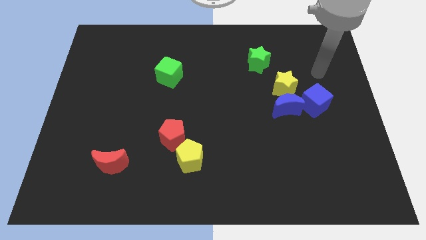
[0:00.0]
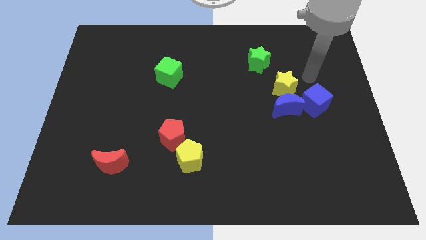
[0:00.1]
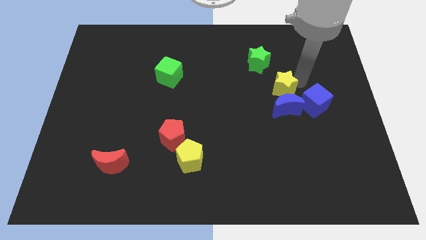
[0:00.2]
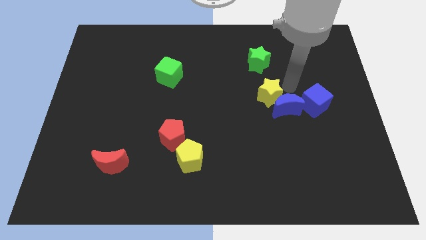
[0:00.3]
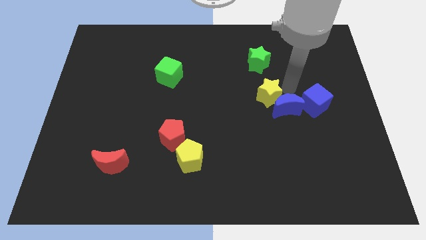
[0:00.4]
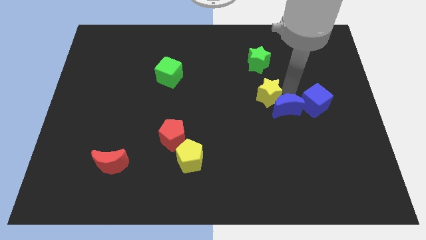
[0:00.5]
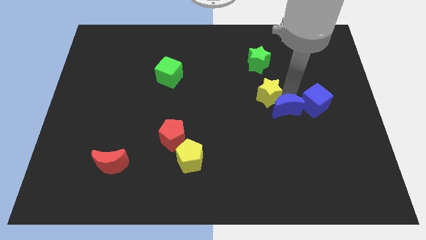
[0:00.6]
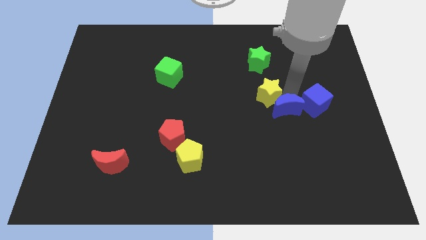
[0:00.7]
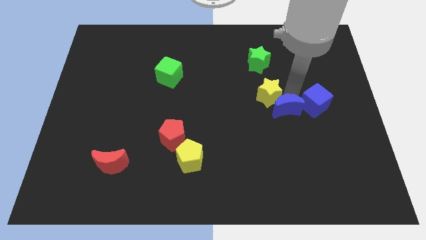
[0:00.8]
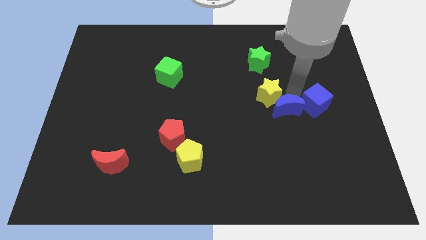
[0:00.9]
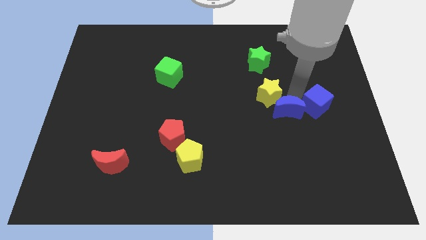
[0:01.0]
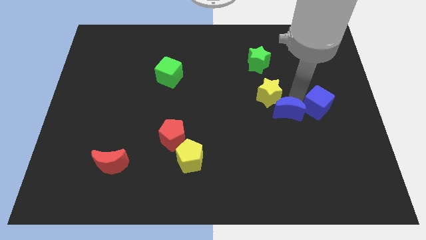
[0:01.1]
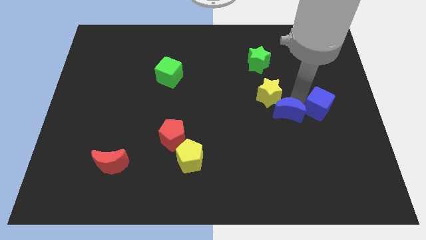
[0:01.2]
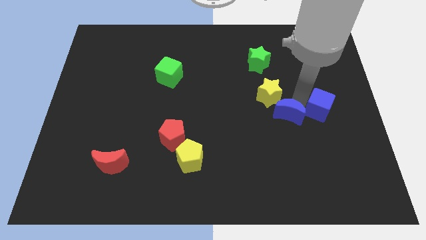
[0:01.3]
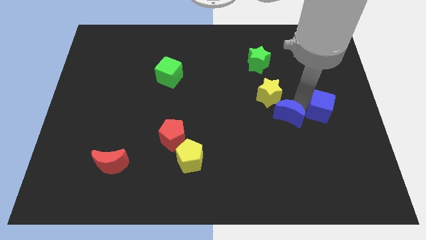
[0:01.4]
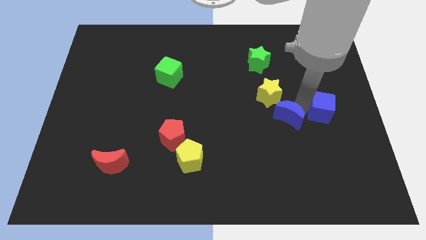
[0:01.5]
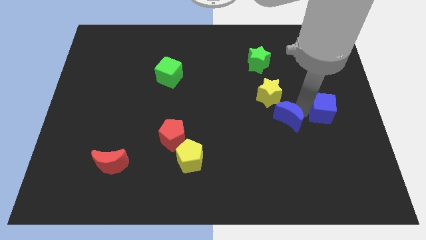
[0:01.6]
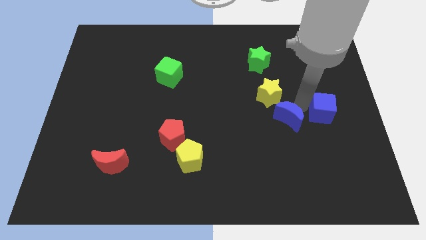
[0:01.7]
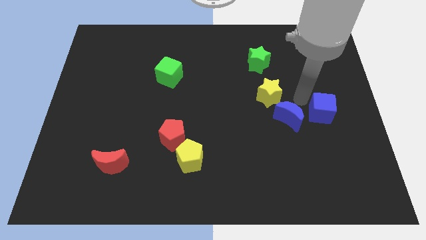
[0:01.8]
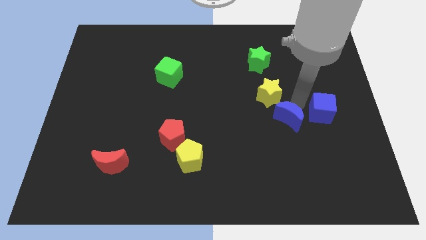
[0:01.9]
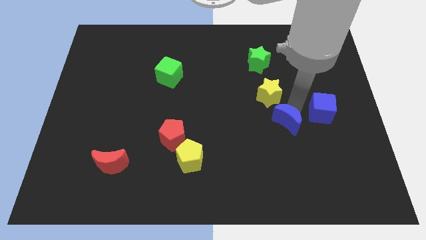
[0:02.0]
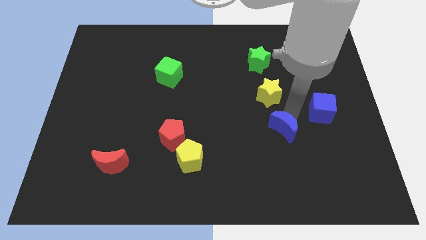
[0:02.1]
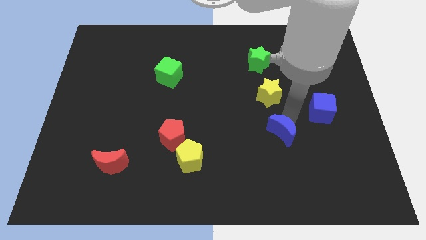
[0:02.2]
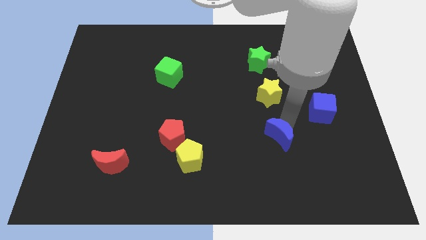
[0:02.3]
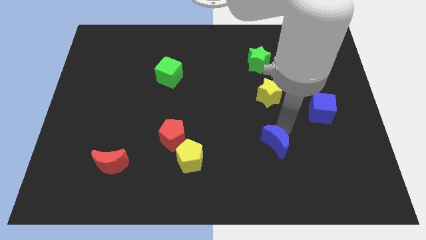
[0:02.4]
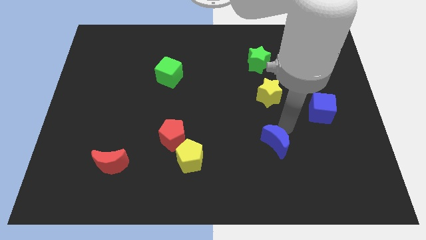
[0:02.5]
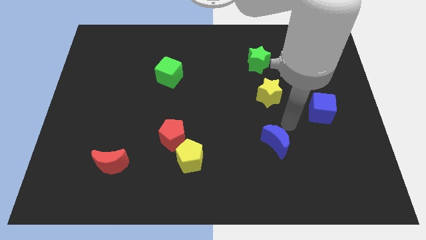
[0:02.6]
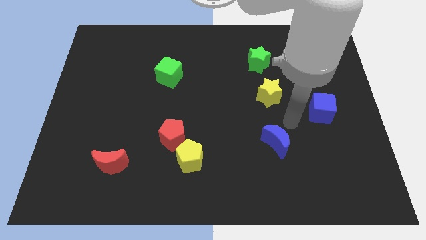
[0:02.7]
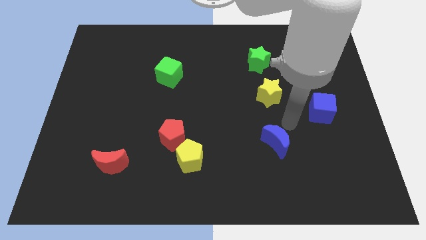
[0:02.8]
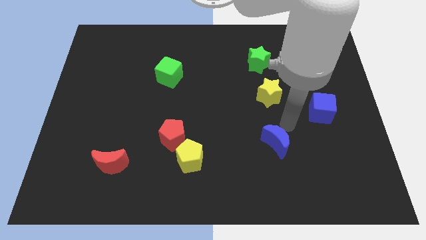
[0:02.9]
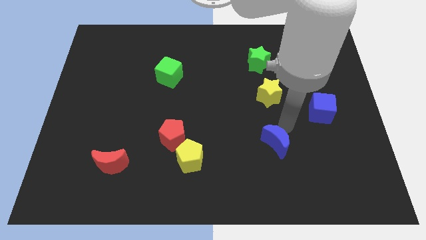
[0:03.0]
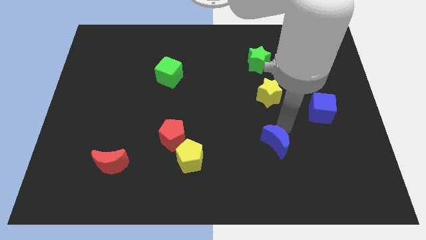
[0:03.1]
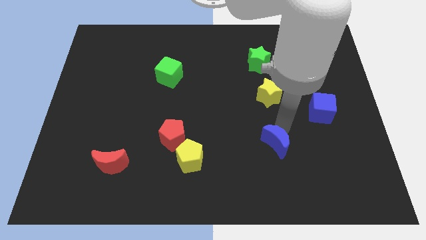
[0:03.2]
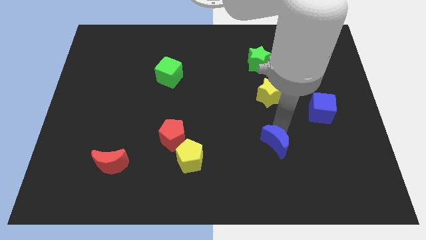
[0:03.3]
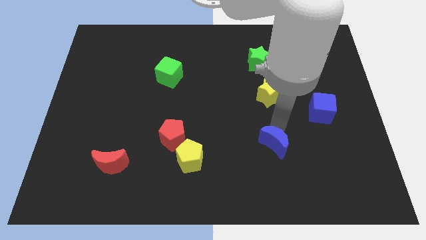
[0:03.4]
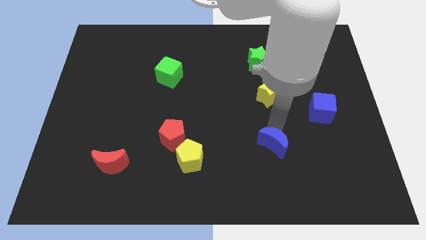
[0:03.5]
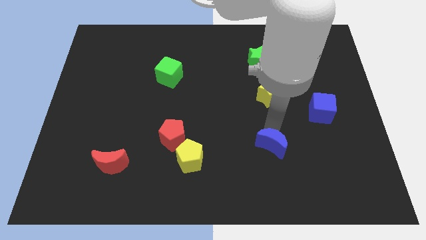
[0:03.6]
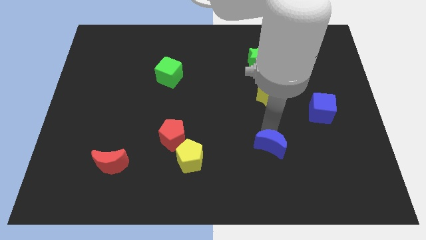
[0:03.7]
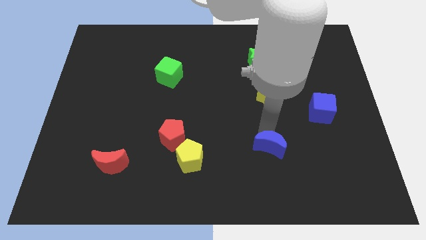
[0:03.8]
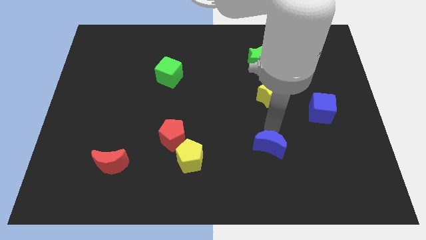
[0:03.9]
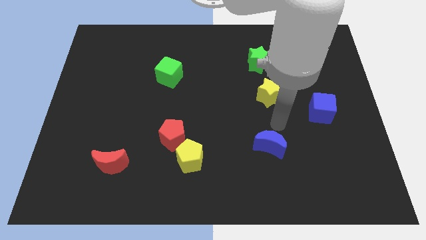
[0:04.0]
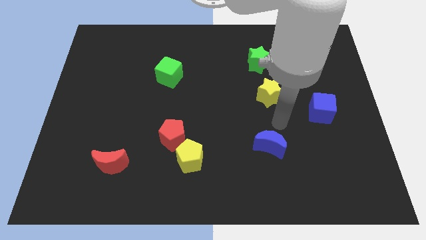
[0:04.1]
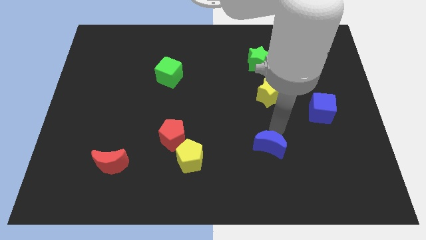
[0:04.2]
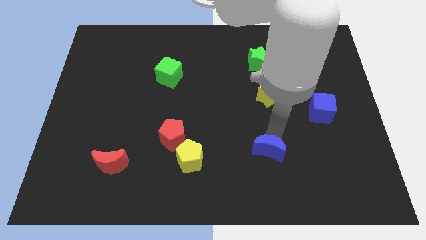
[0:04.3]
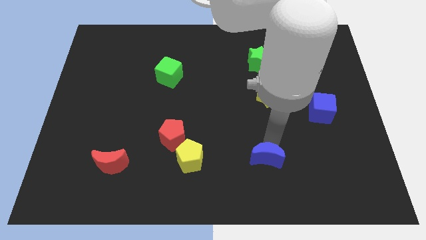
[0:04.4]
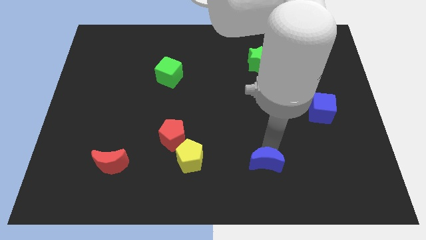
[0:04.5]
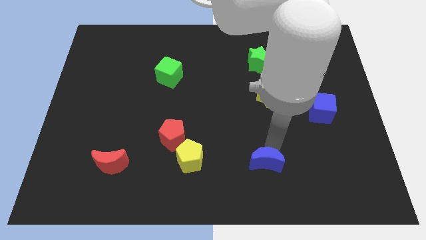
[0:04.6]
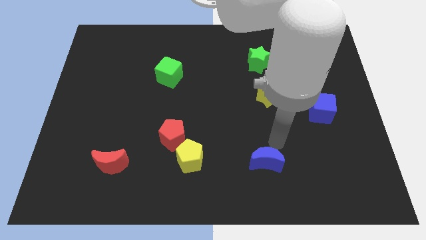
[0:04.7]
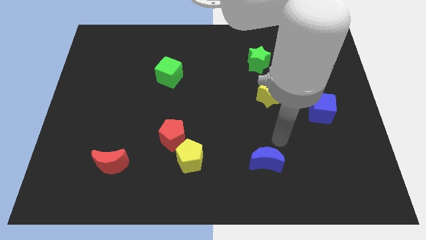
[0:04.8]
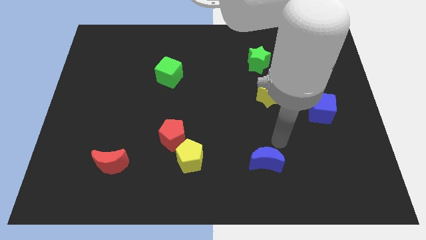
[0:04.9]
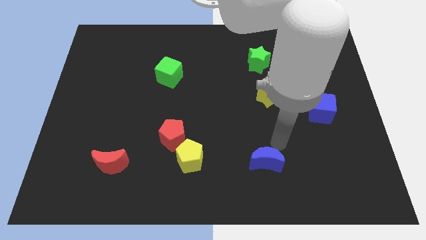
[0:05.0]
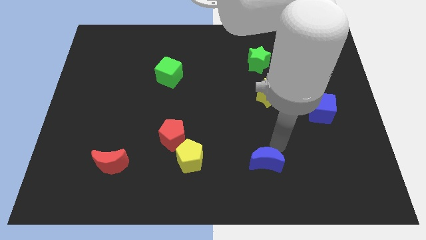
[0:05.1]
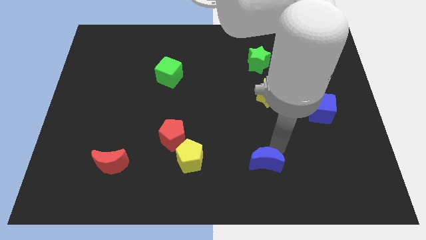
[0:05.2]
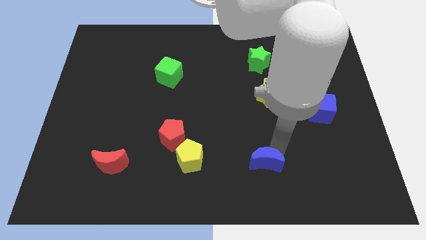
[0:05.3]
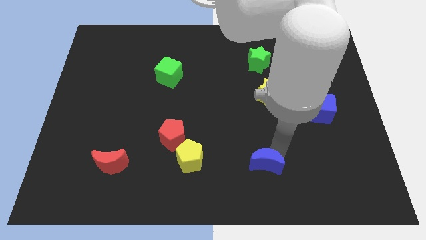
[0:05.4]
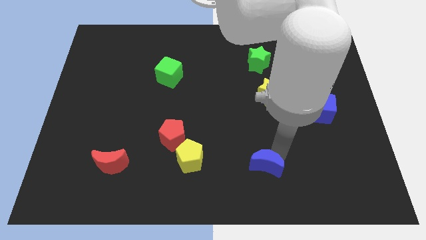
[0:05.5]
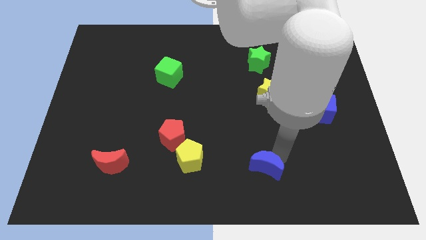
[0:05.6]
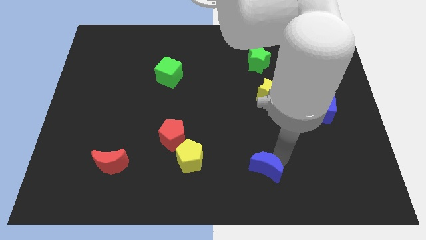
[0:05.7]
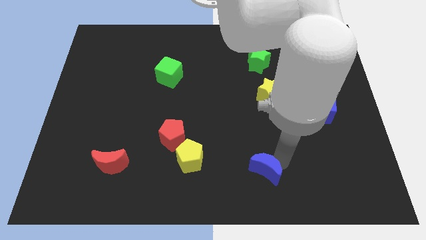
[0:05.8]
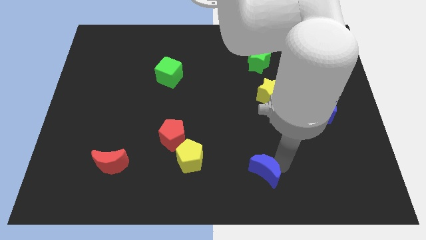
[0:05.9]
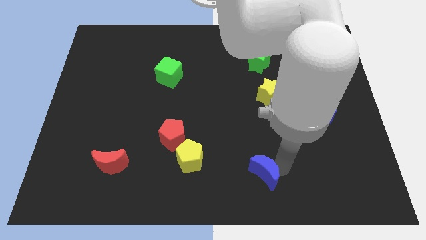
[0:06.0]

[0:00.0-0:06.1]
slide the blue moon to the bottom

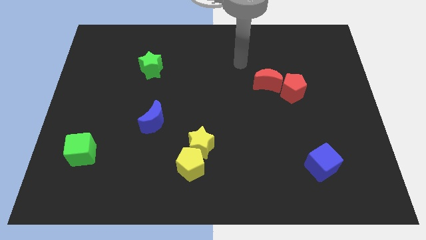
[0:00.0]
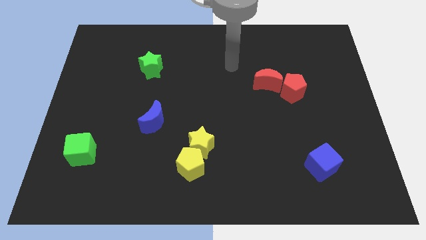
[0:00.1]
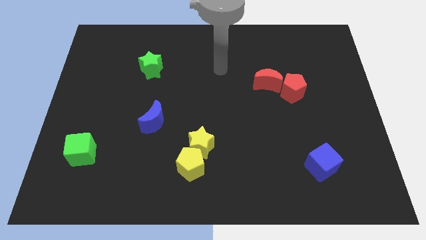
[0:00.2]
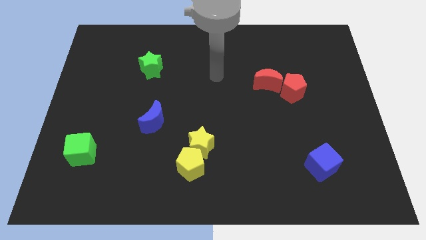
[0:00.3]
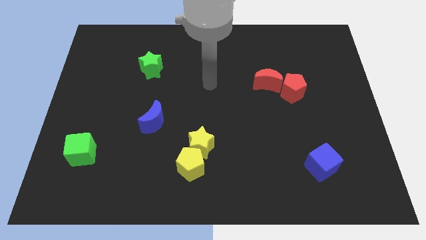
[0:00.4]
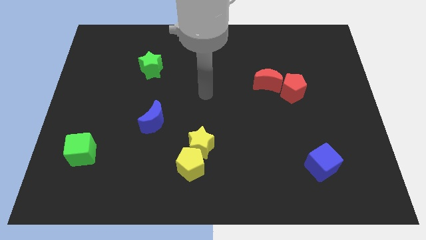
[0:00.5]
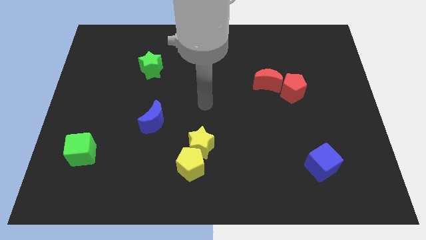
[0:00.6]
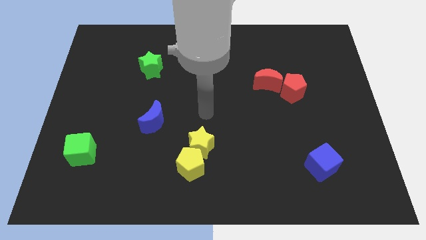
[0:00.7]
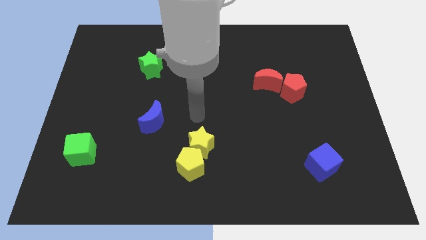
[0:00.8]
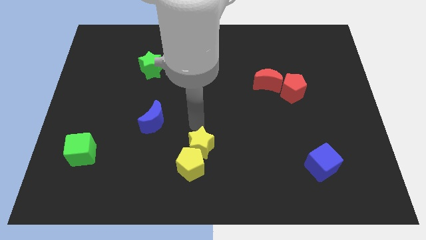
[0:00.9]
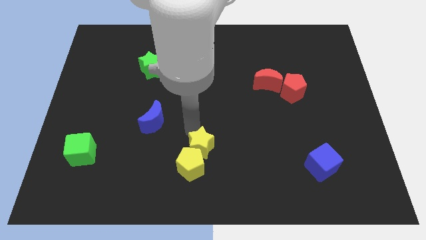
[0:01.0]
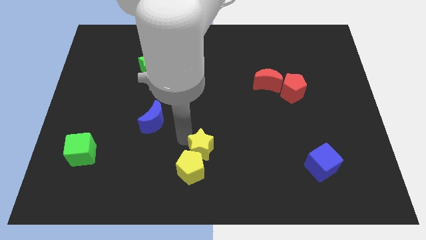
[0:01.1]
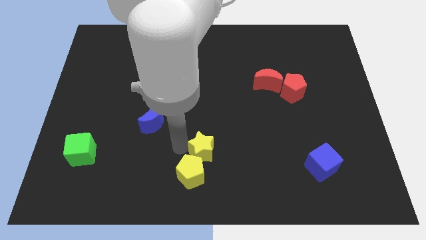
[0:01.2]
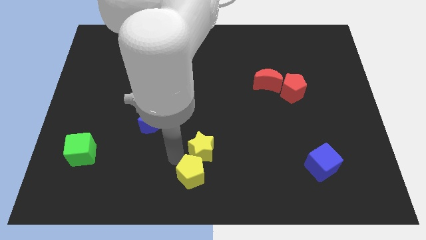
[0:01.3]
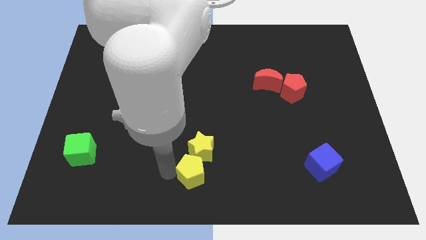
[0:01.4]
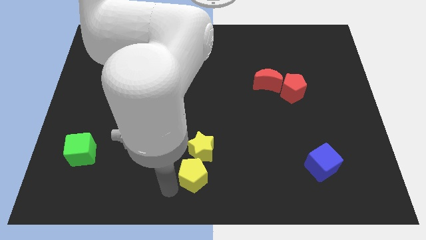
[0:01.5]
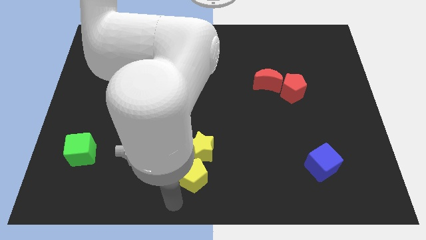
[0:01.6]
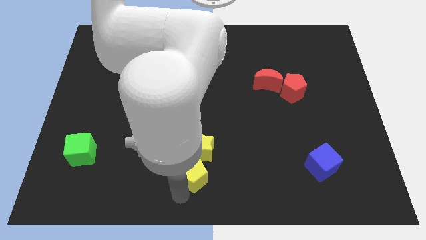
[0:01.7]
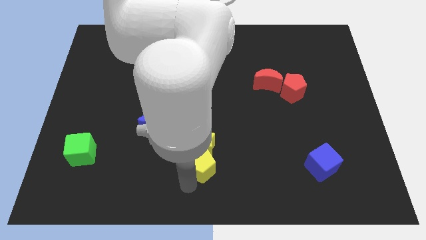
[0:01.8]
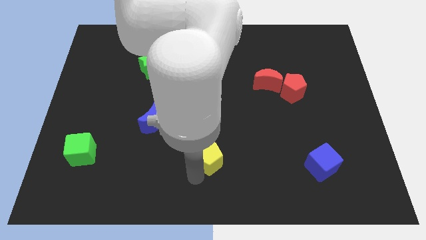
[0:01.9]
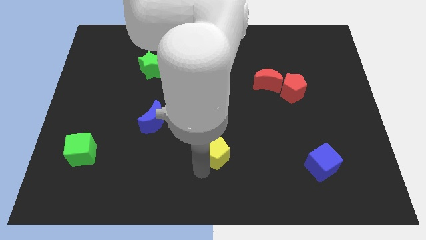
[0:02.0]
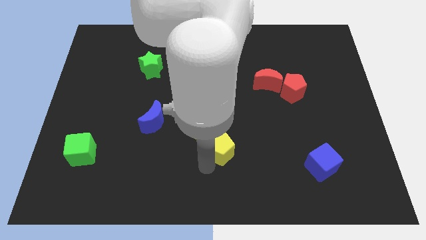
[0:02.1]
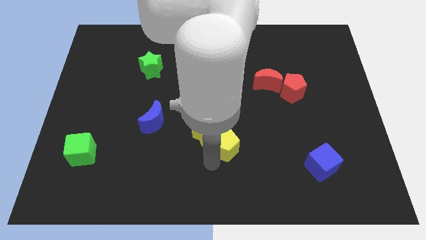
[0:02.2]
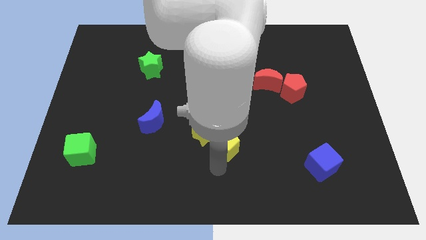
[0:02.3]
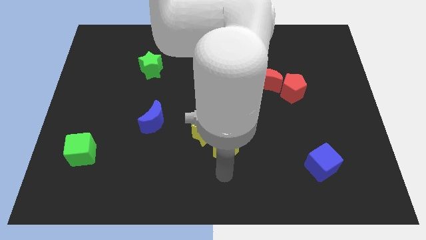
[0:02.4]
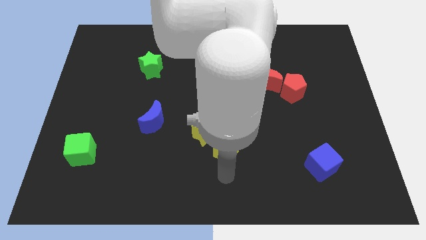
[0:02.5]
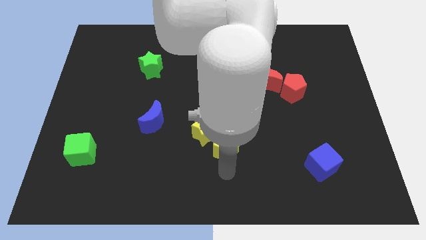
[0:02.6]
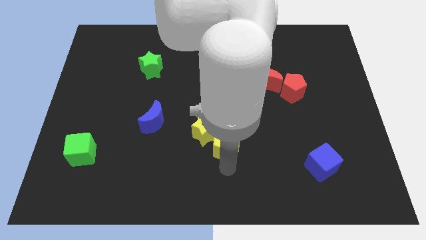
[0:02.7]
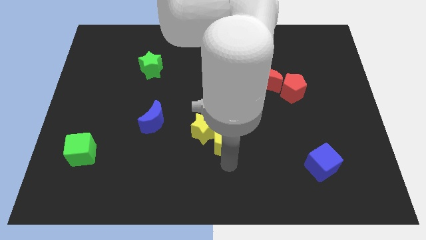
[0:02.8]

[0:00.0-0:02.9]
slide the yellow pentagon to the center
